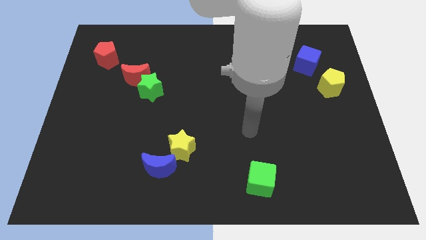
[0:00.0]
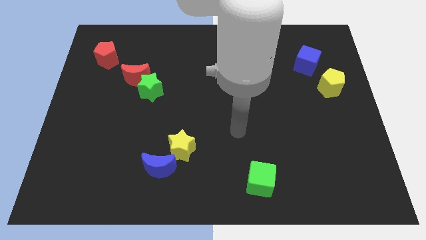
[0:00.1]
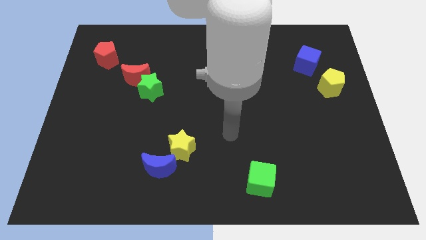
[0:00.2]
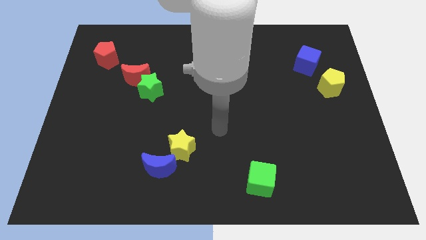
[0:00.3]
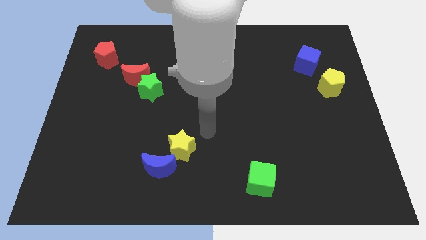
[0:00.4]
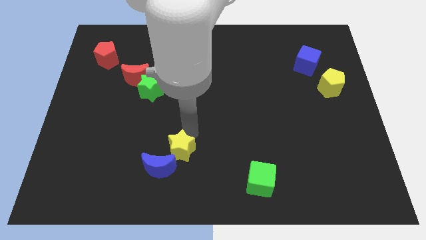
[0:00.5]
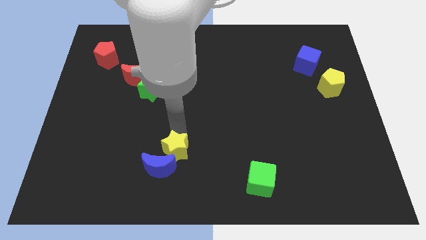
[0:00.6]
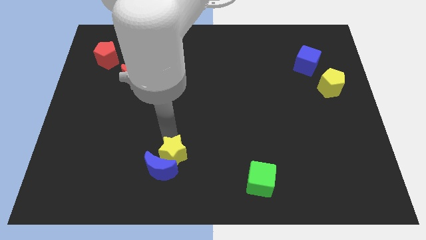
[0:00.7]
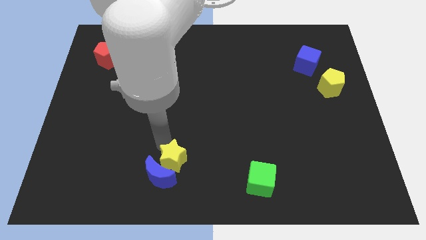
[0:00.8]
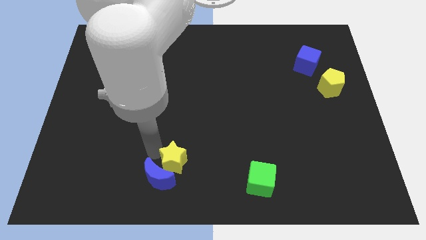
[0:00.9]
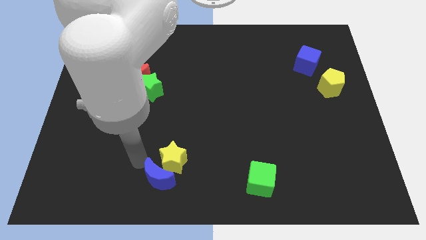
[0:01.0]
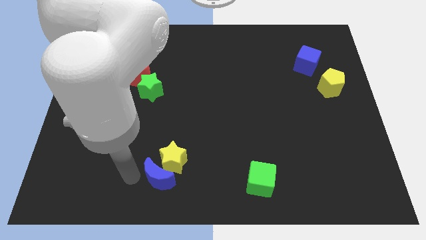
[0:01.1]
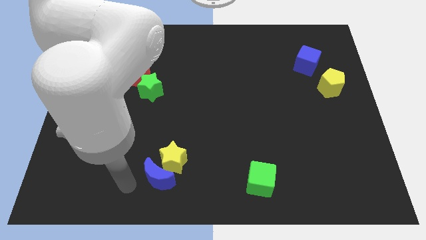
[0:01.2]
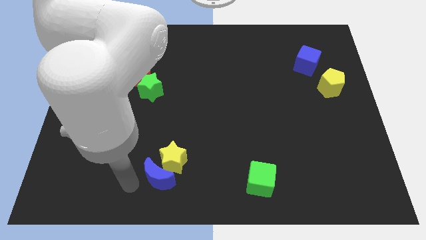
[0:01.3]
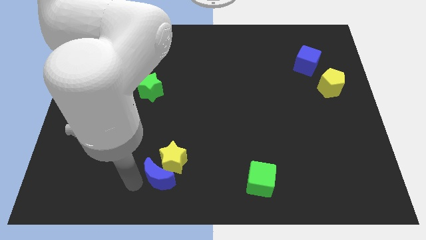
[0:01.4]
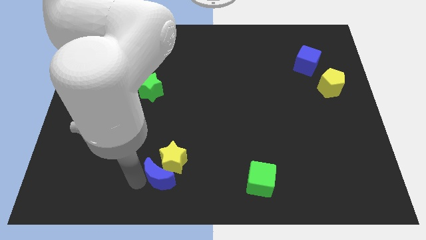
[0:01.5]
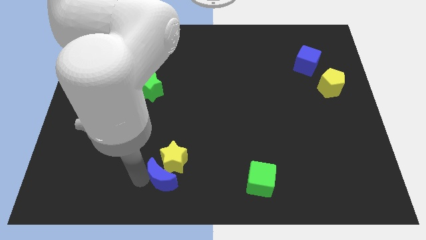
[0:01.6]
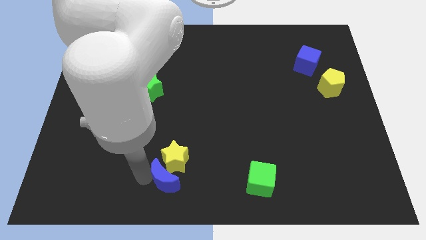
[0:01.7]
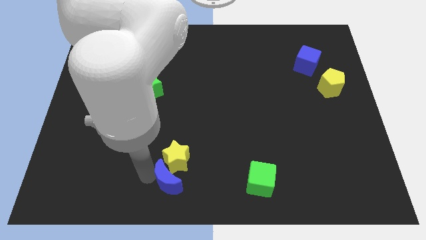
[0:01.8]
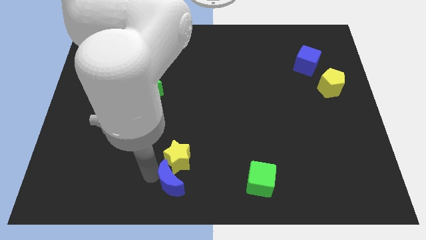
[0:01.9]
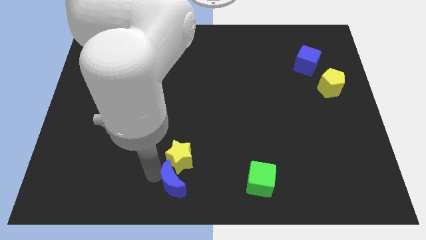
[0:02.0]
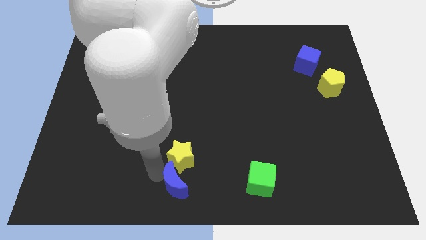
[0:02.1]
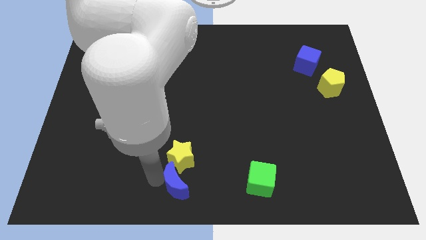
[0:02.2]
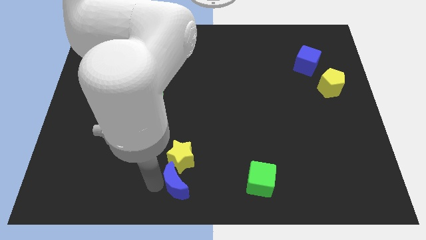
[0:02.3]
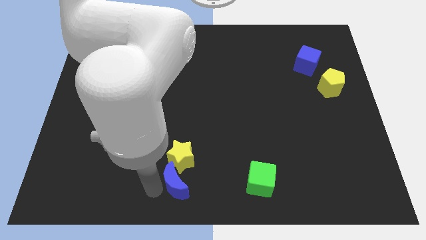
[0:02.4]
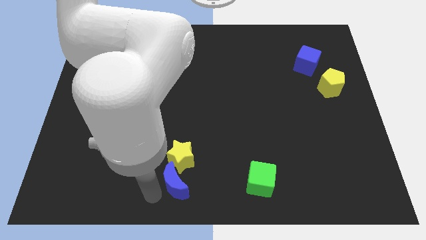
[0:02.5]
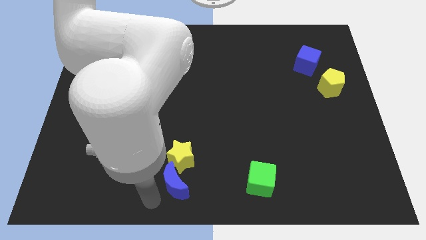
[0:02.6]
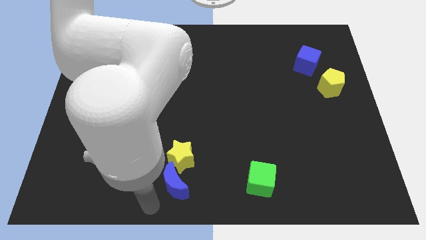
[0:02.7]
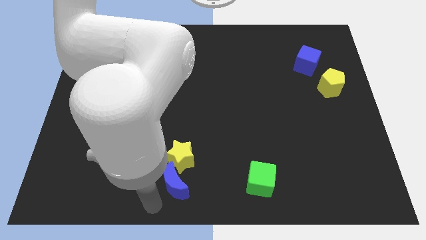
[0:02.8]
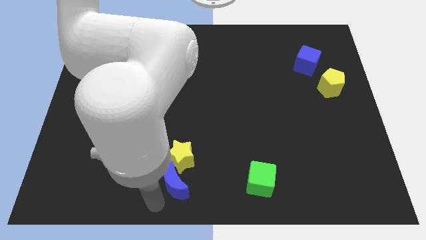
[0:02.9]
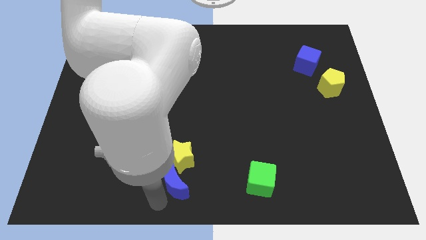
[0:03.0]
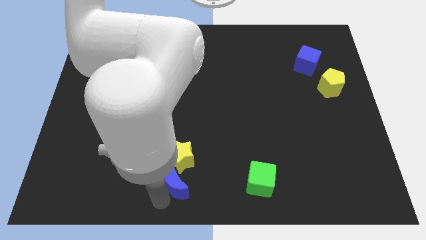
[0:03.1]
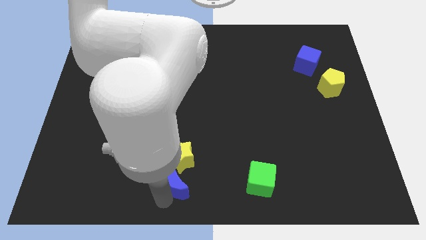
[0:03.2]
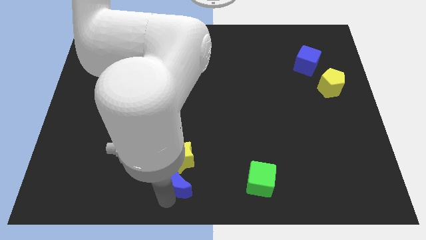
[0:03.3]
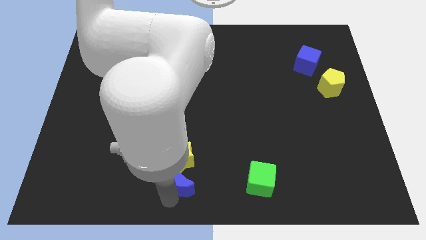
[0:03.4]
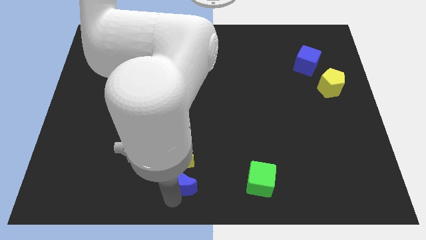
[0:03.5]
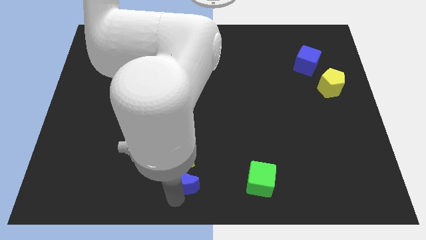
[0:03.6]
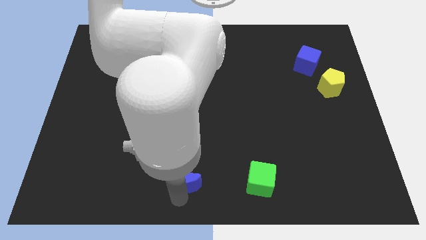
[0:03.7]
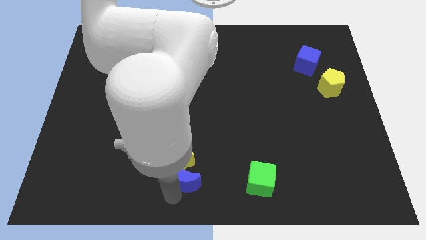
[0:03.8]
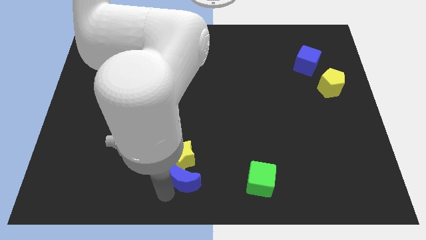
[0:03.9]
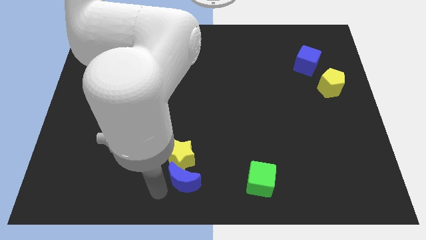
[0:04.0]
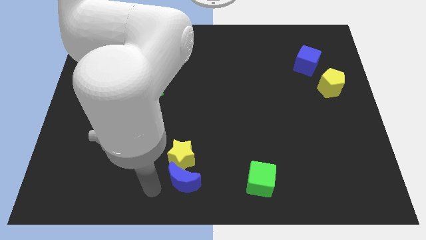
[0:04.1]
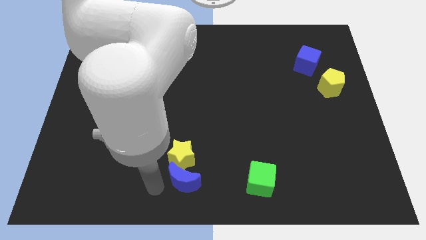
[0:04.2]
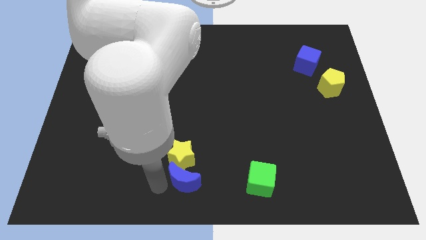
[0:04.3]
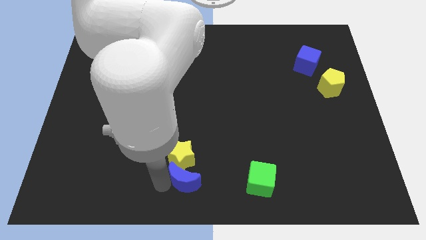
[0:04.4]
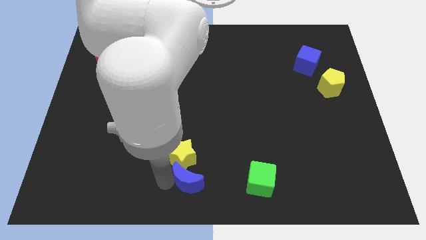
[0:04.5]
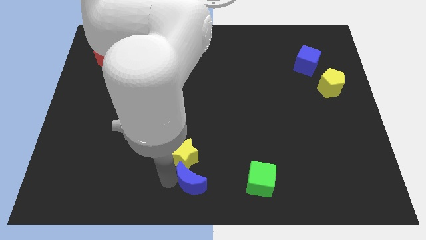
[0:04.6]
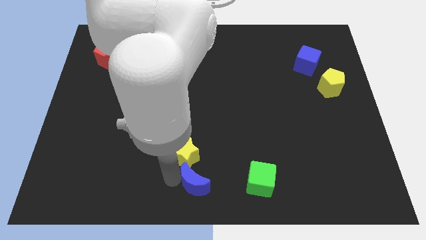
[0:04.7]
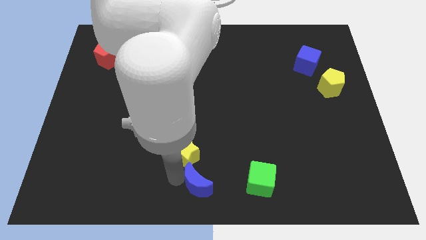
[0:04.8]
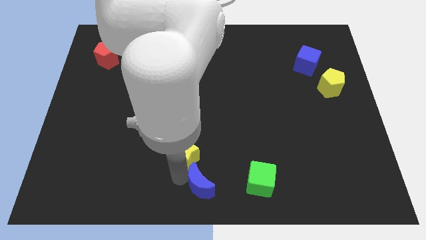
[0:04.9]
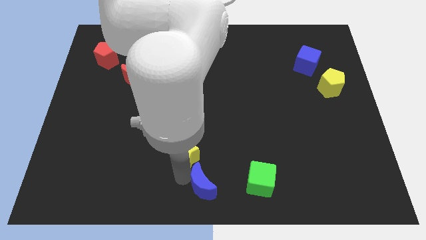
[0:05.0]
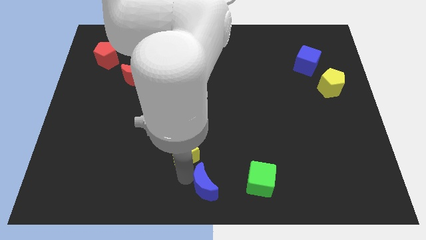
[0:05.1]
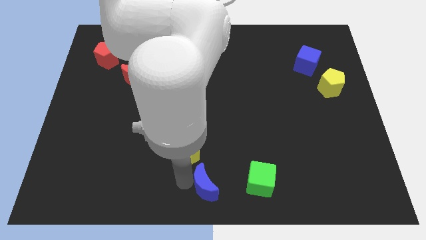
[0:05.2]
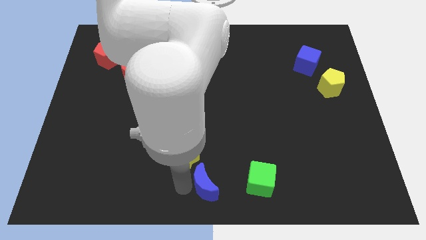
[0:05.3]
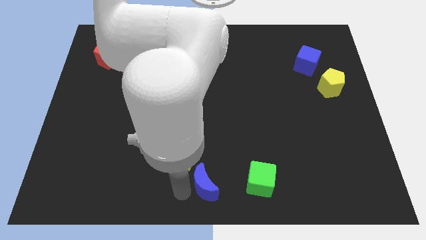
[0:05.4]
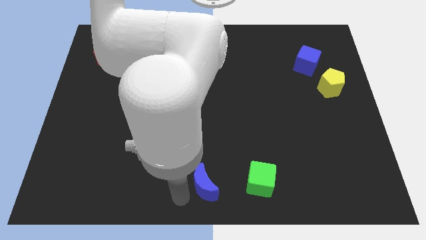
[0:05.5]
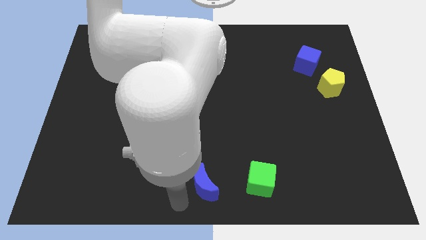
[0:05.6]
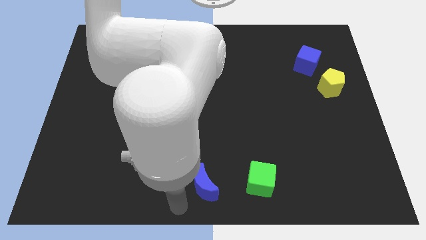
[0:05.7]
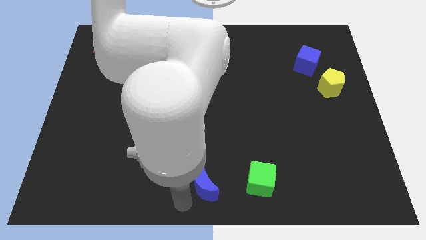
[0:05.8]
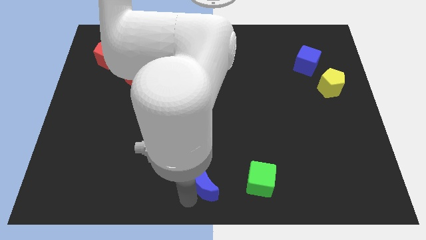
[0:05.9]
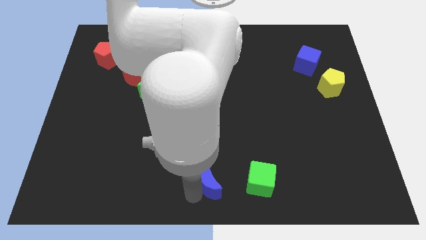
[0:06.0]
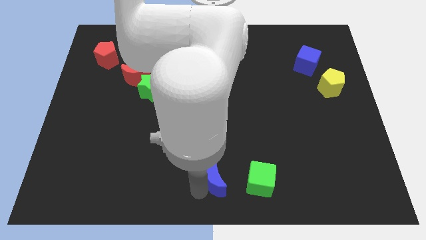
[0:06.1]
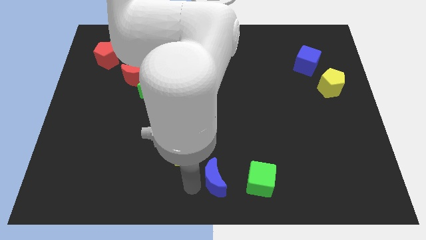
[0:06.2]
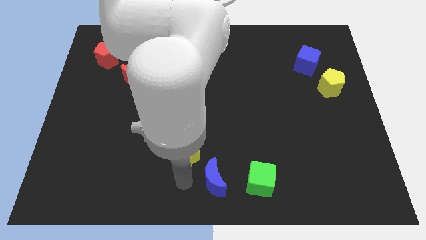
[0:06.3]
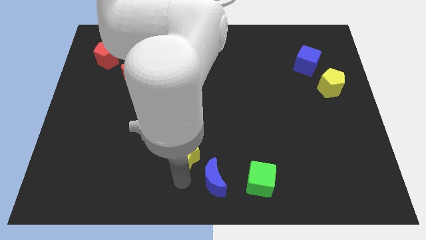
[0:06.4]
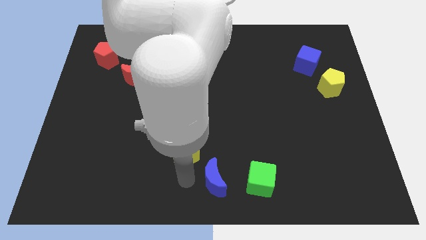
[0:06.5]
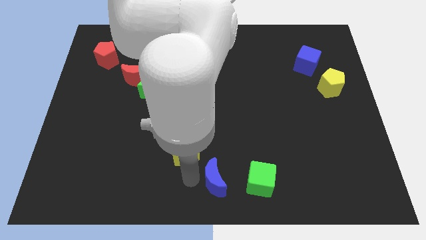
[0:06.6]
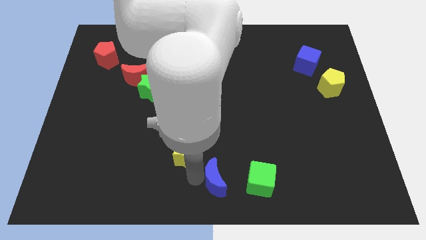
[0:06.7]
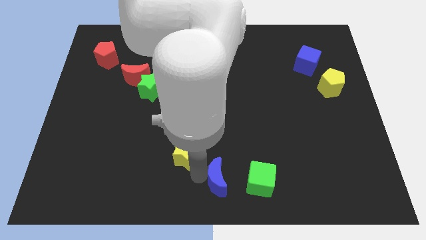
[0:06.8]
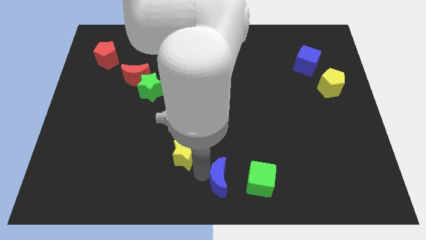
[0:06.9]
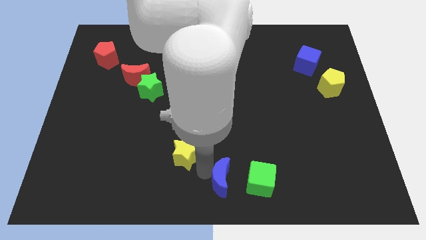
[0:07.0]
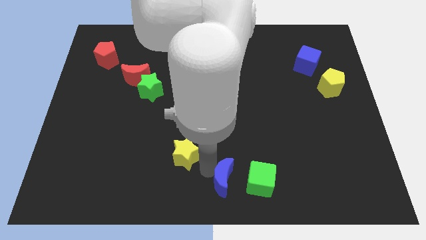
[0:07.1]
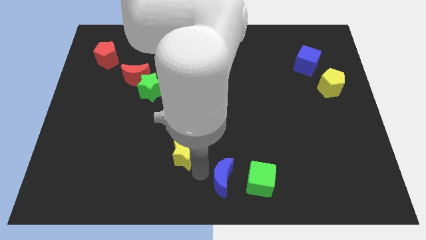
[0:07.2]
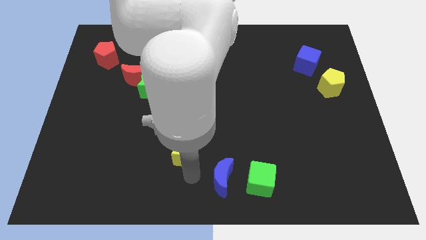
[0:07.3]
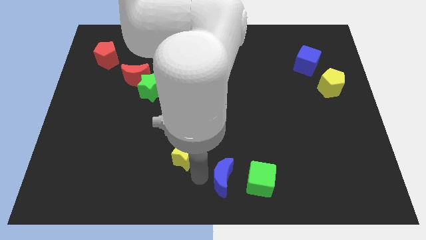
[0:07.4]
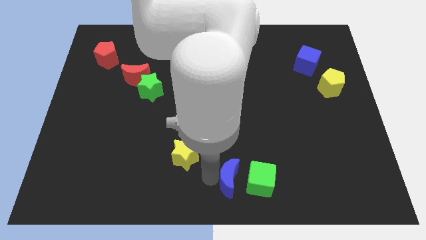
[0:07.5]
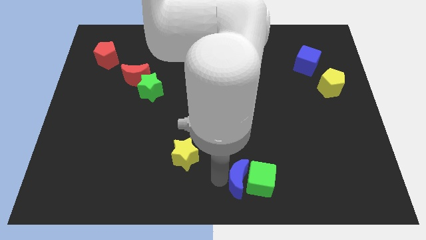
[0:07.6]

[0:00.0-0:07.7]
put the blue moon close to the green cube
